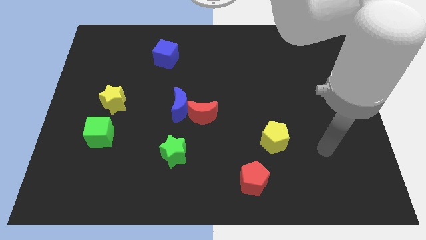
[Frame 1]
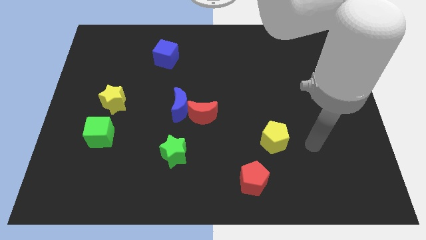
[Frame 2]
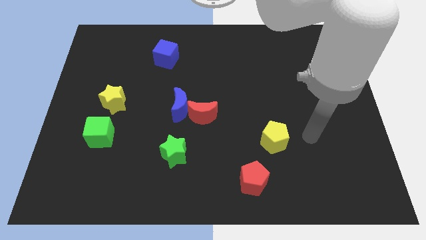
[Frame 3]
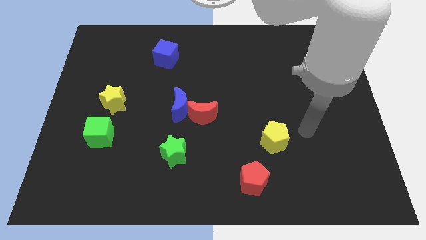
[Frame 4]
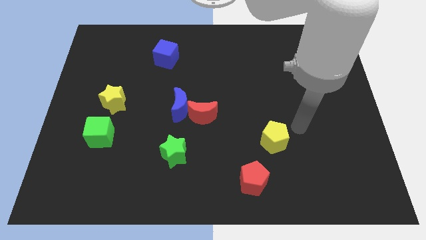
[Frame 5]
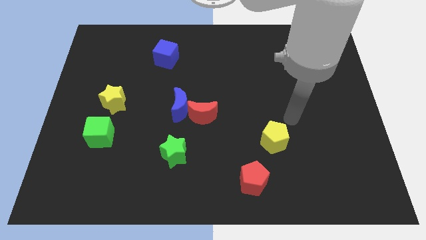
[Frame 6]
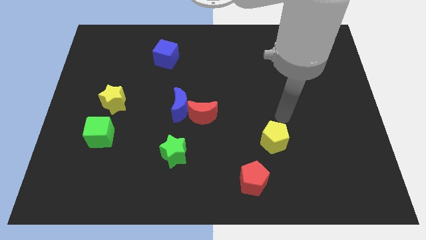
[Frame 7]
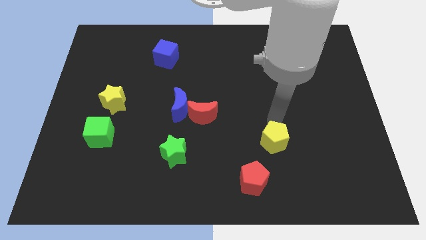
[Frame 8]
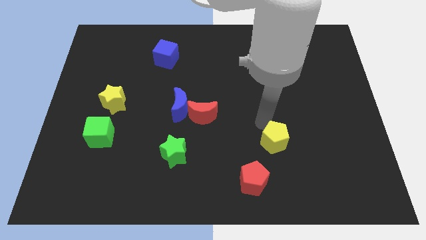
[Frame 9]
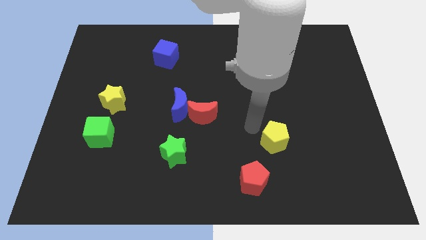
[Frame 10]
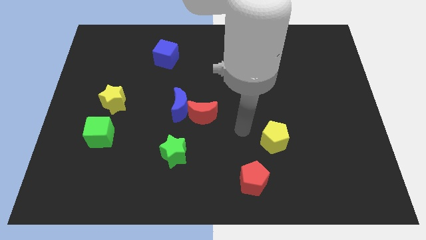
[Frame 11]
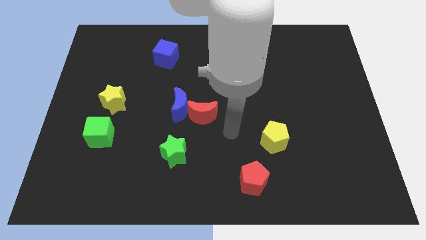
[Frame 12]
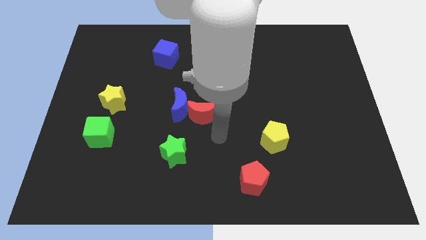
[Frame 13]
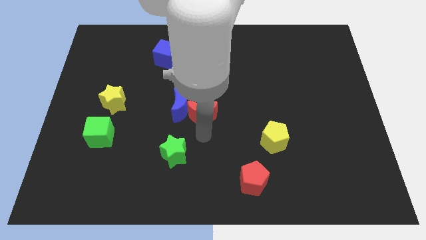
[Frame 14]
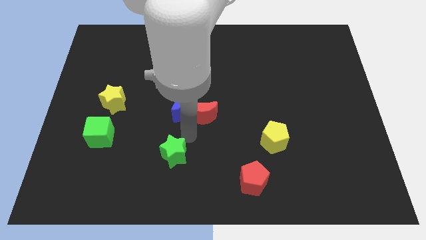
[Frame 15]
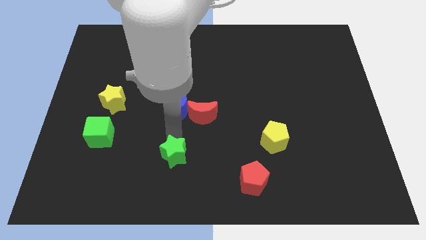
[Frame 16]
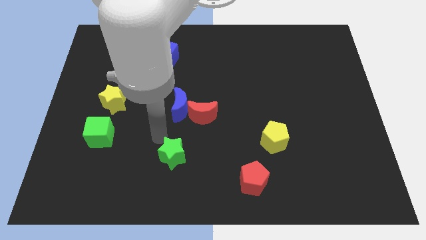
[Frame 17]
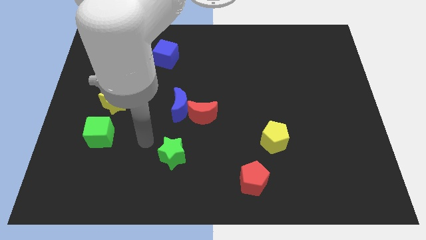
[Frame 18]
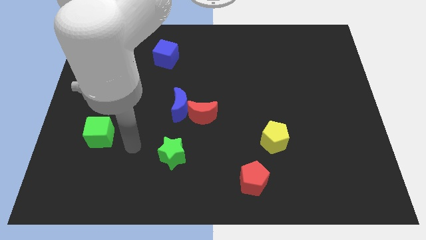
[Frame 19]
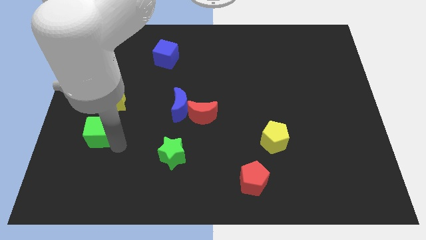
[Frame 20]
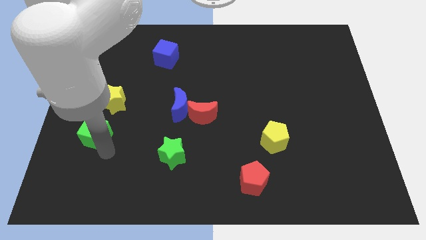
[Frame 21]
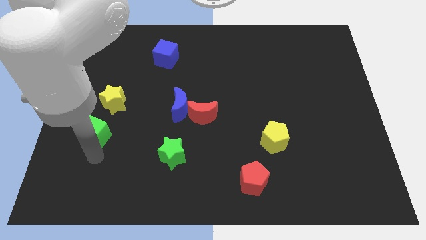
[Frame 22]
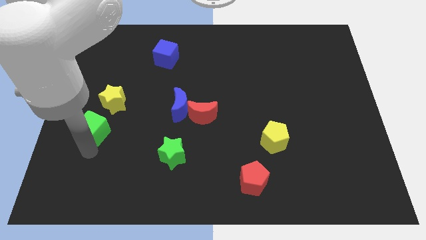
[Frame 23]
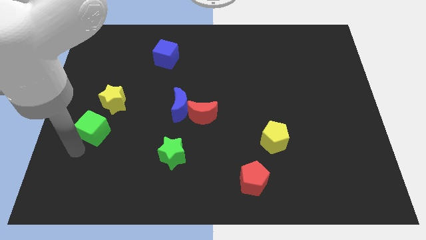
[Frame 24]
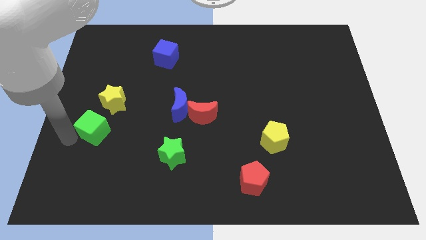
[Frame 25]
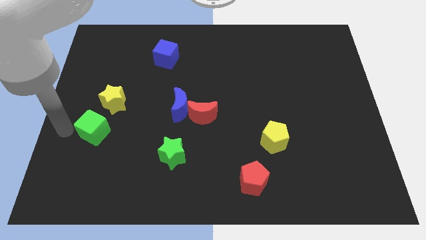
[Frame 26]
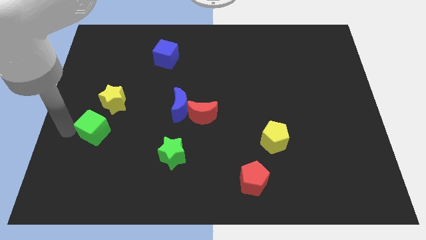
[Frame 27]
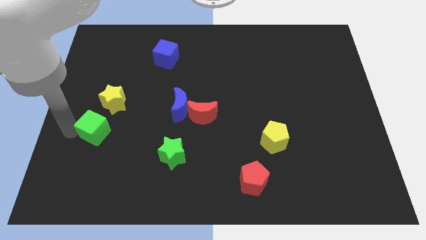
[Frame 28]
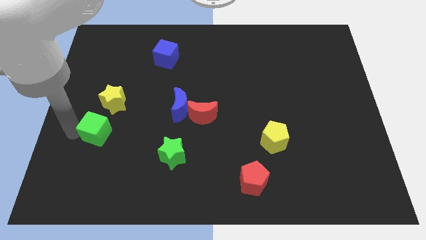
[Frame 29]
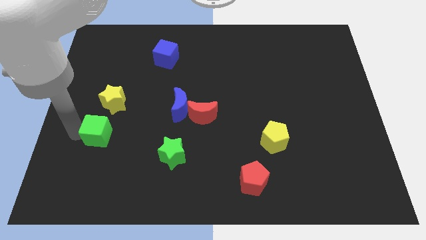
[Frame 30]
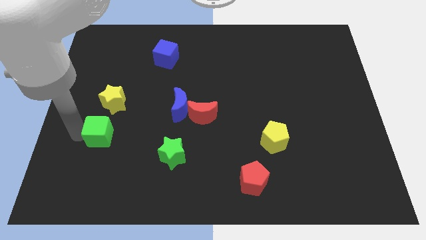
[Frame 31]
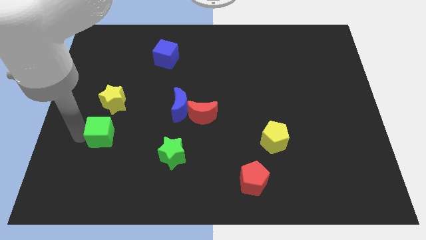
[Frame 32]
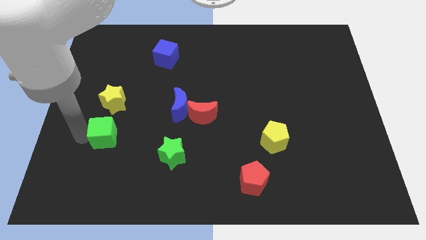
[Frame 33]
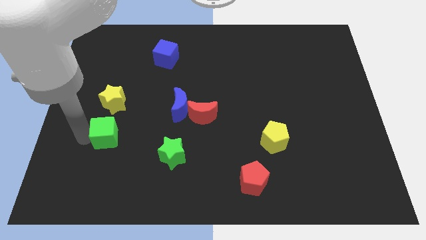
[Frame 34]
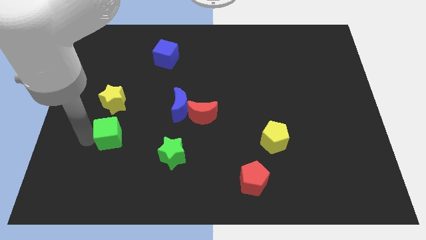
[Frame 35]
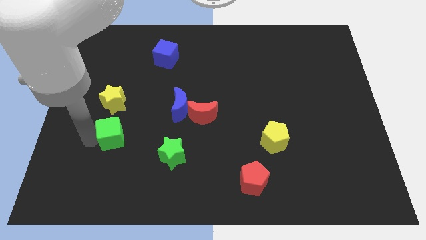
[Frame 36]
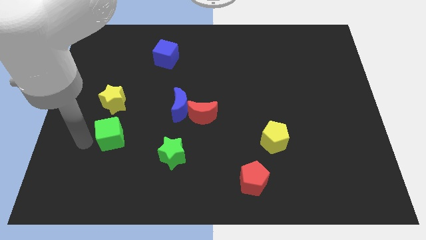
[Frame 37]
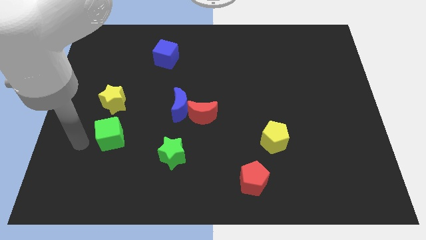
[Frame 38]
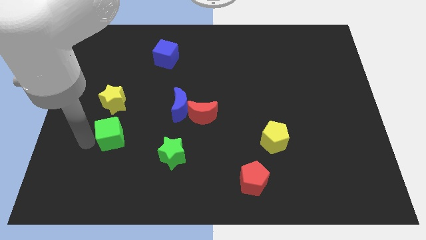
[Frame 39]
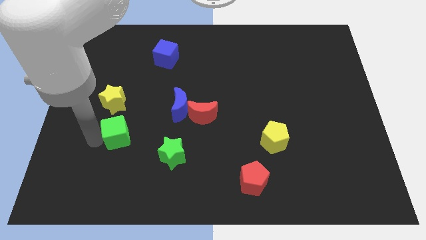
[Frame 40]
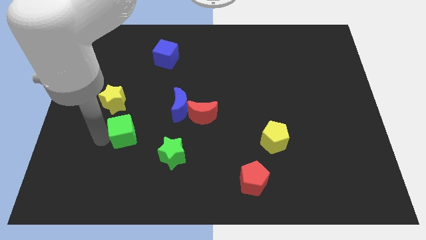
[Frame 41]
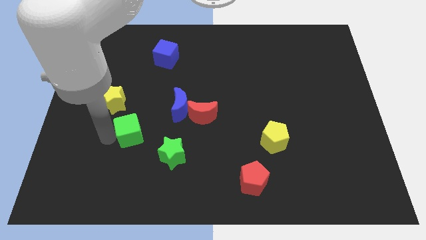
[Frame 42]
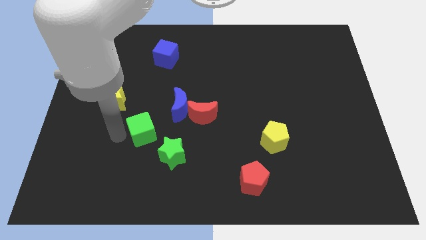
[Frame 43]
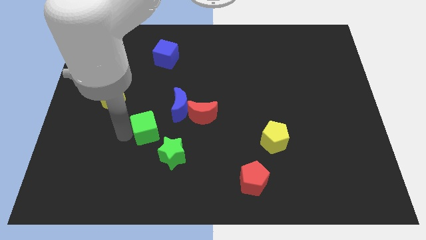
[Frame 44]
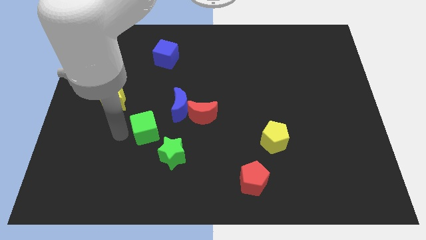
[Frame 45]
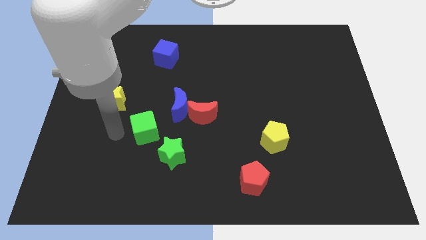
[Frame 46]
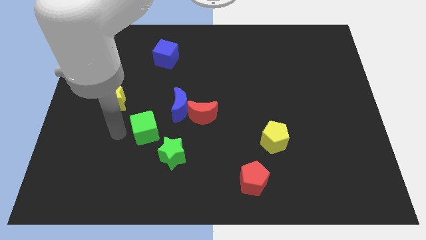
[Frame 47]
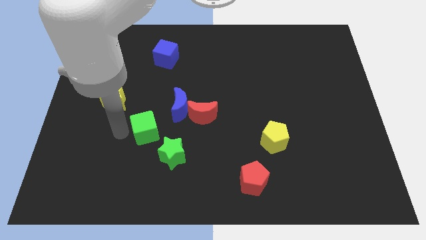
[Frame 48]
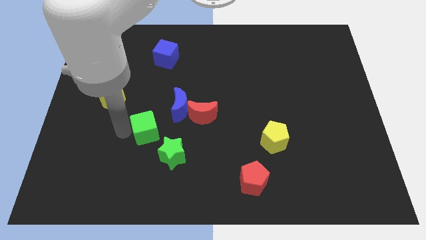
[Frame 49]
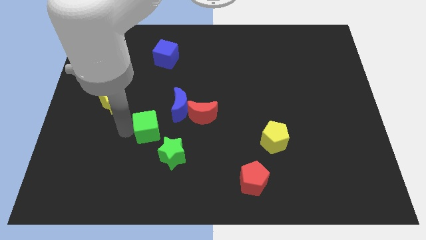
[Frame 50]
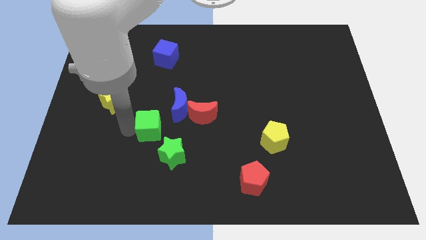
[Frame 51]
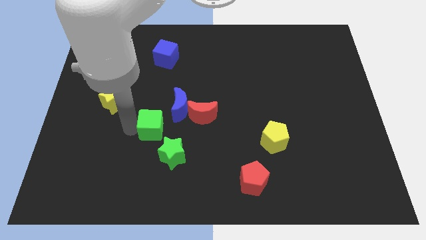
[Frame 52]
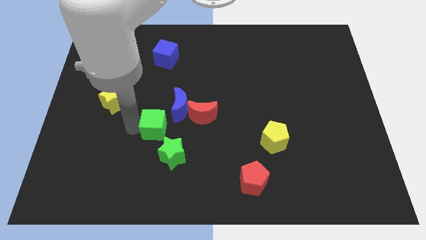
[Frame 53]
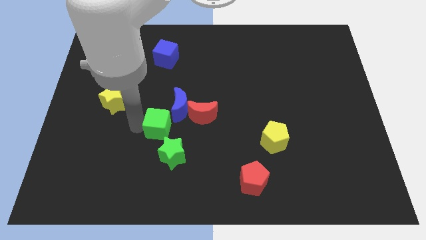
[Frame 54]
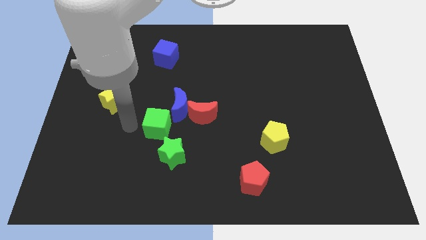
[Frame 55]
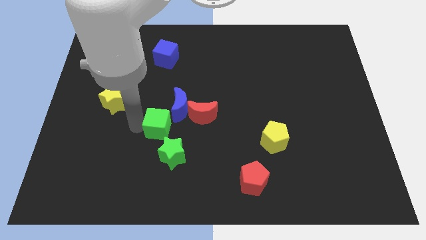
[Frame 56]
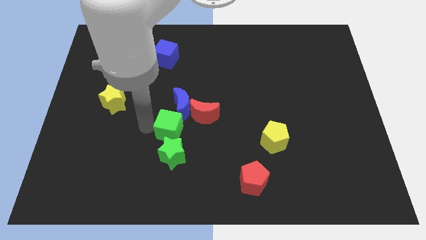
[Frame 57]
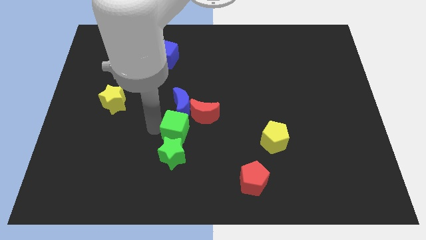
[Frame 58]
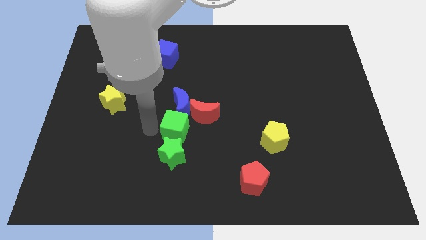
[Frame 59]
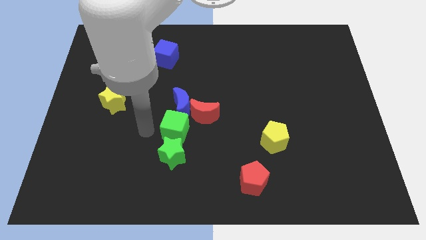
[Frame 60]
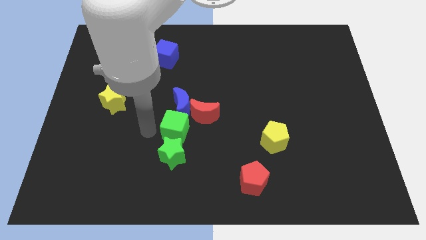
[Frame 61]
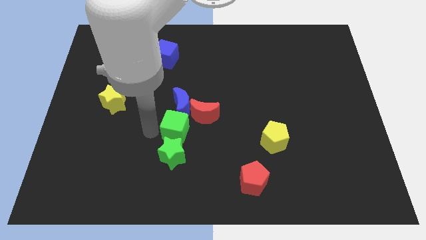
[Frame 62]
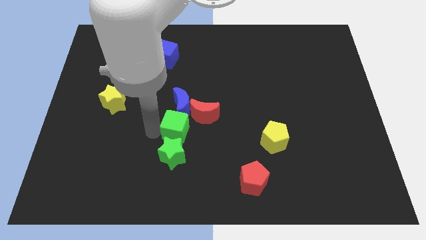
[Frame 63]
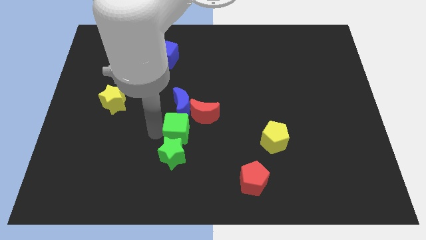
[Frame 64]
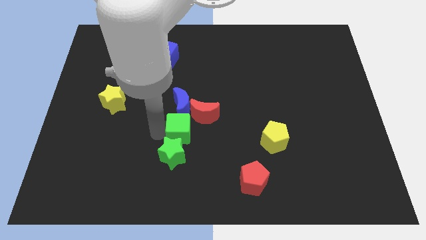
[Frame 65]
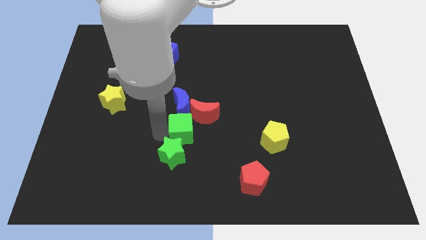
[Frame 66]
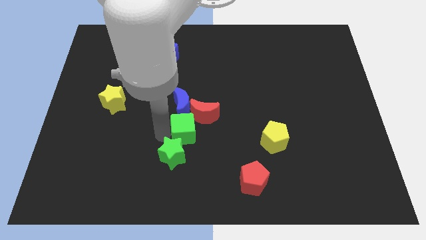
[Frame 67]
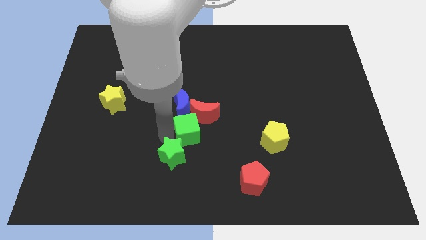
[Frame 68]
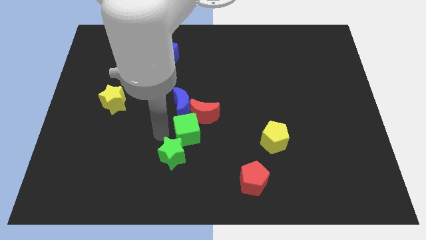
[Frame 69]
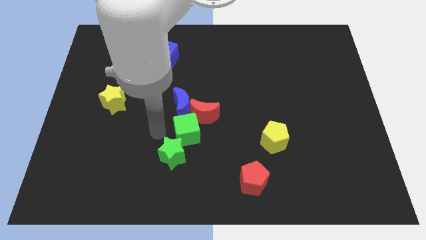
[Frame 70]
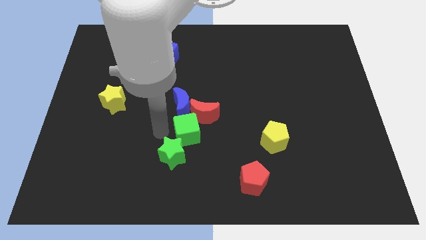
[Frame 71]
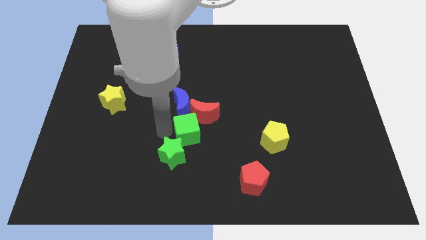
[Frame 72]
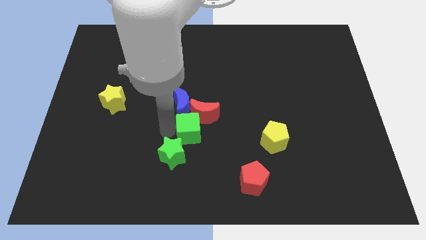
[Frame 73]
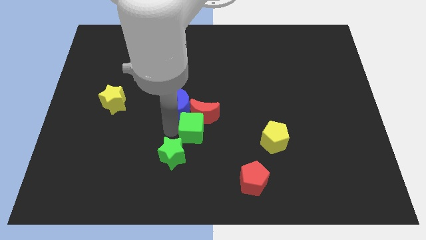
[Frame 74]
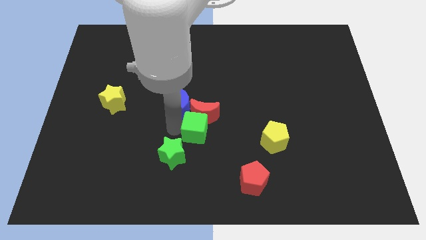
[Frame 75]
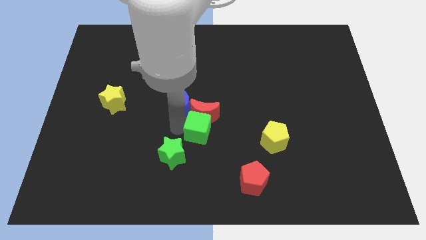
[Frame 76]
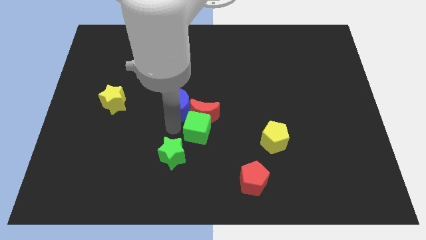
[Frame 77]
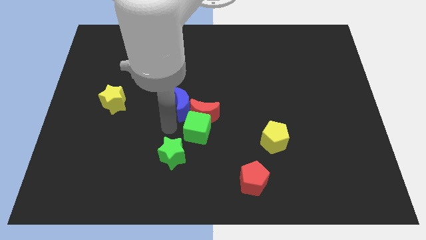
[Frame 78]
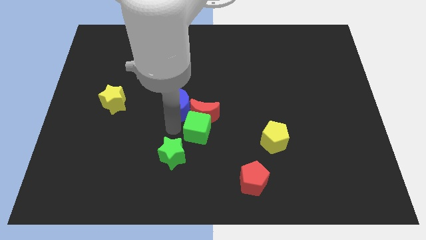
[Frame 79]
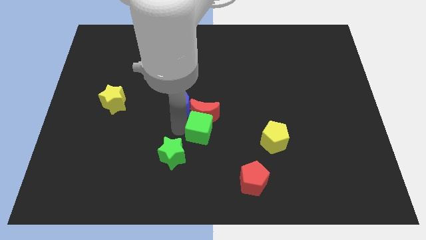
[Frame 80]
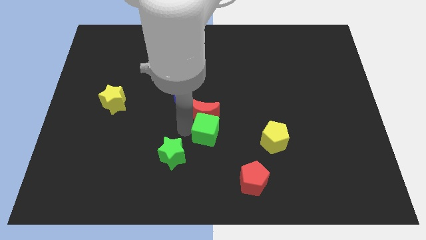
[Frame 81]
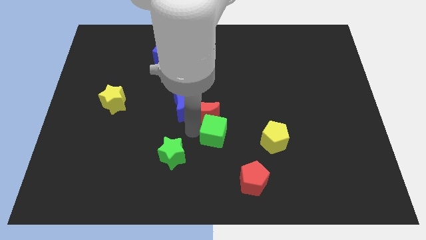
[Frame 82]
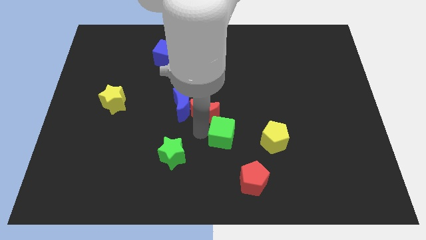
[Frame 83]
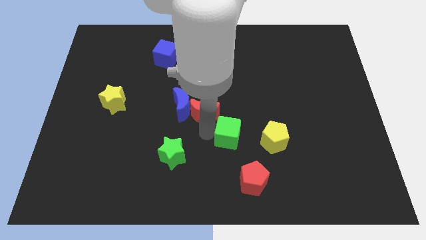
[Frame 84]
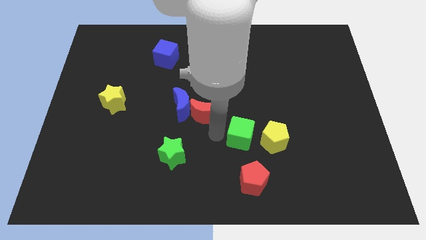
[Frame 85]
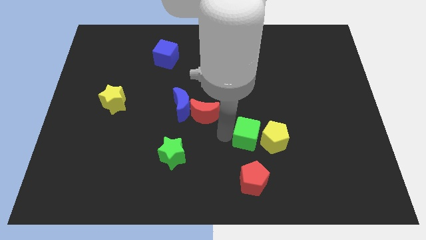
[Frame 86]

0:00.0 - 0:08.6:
put the green cube towards the yellow pentagon
